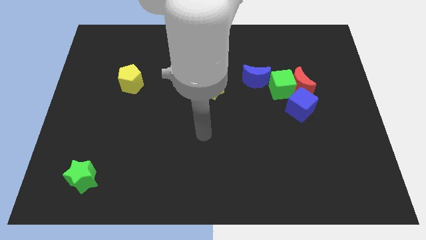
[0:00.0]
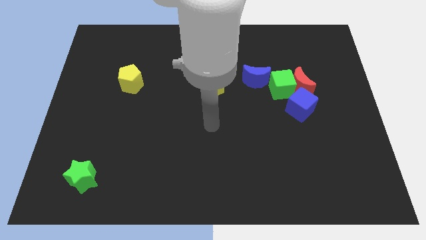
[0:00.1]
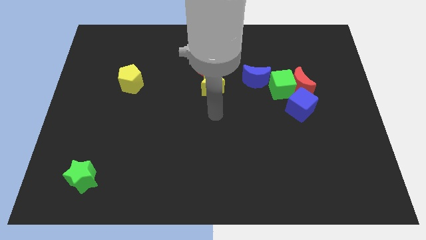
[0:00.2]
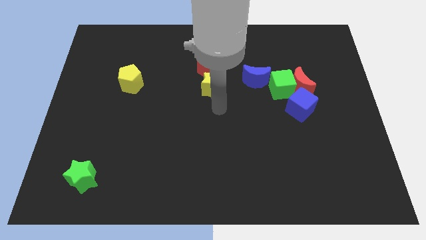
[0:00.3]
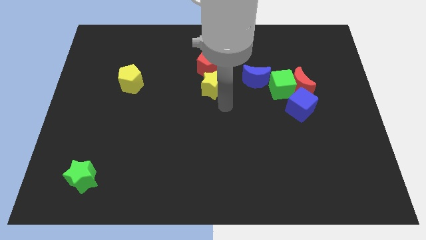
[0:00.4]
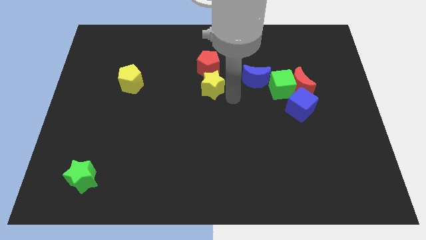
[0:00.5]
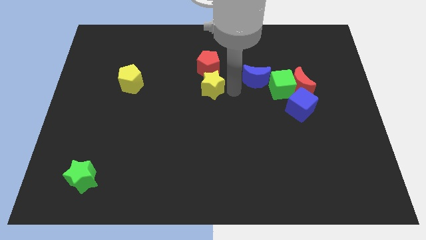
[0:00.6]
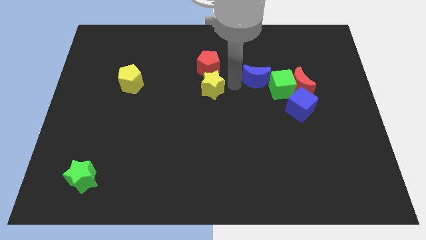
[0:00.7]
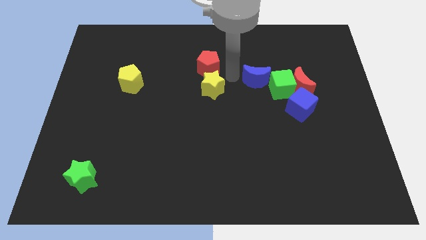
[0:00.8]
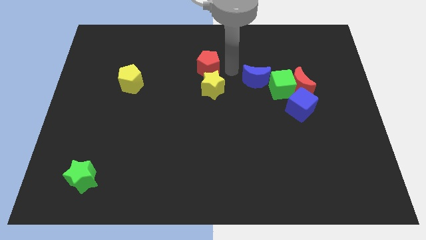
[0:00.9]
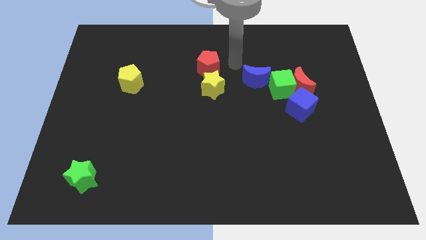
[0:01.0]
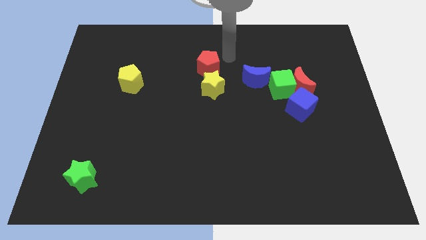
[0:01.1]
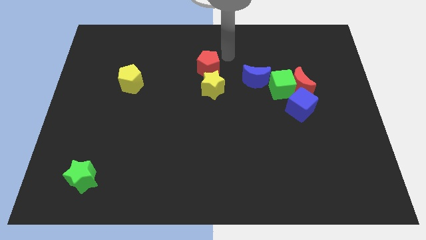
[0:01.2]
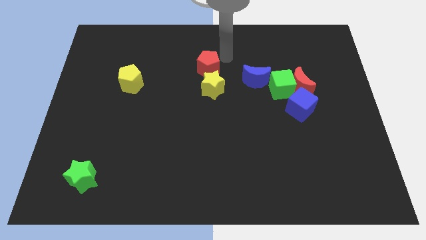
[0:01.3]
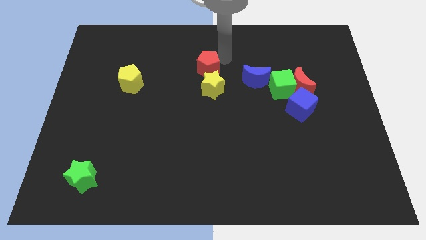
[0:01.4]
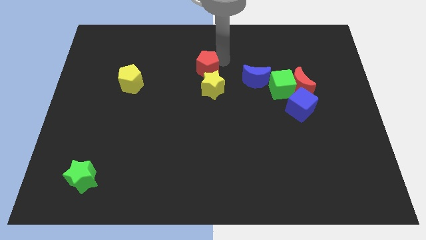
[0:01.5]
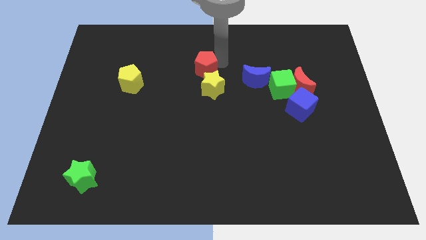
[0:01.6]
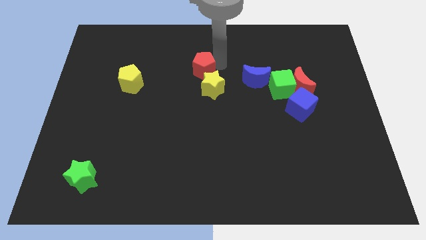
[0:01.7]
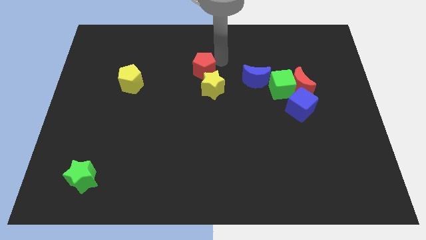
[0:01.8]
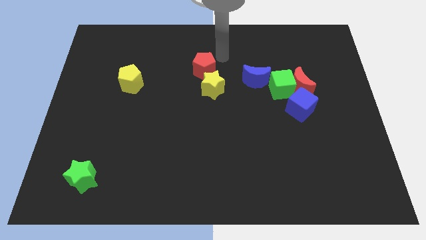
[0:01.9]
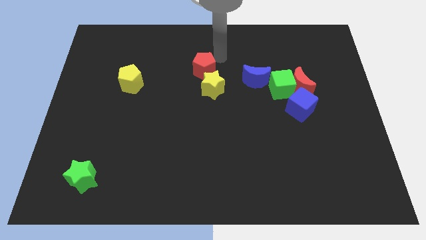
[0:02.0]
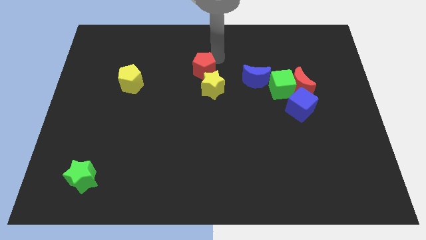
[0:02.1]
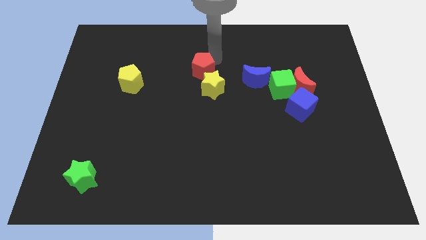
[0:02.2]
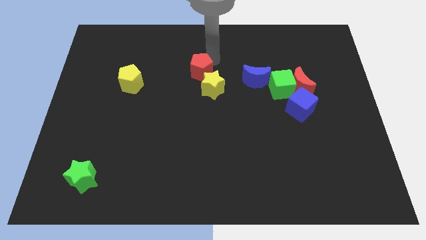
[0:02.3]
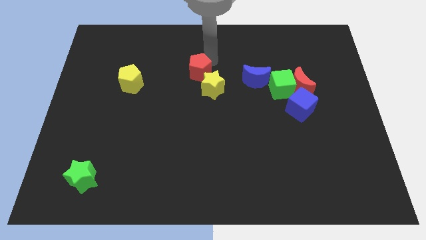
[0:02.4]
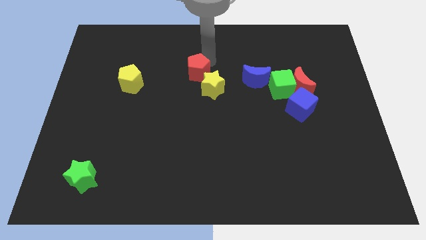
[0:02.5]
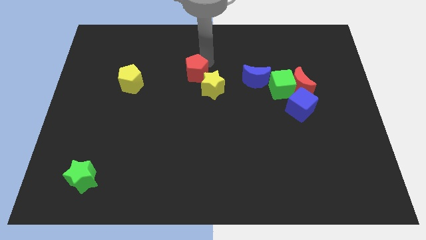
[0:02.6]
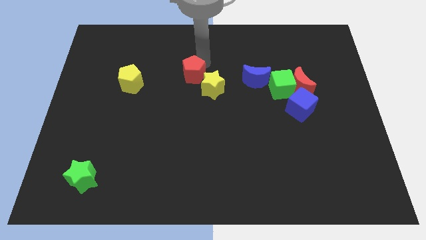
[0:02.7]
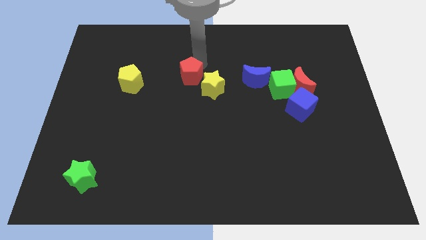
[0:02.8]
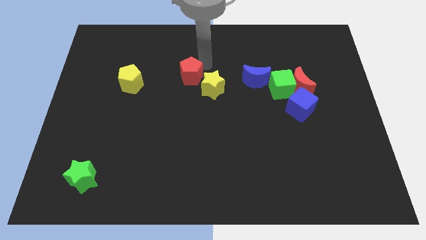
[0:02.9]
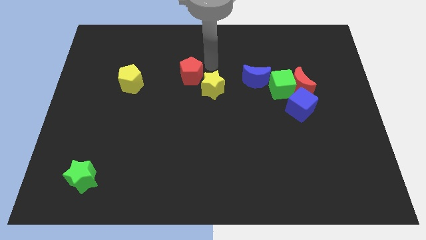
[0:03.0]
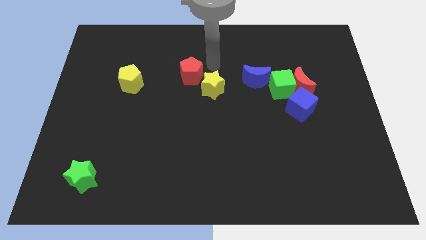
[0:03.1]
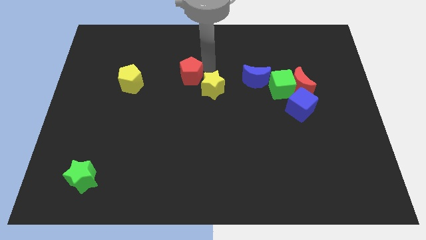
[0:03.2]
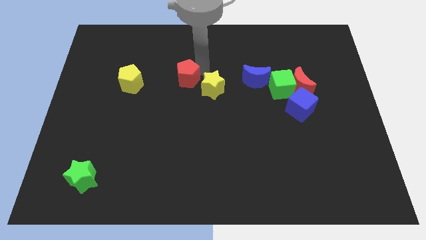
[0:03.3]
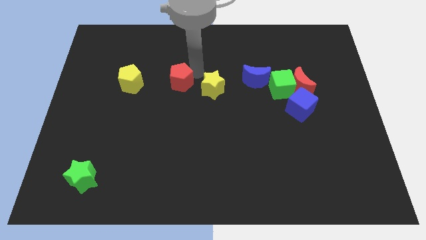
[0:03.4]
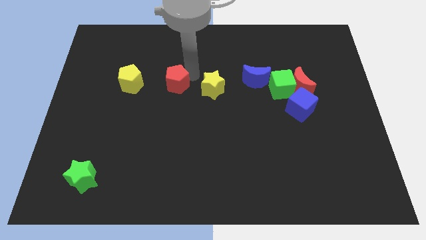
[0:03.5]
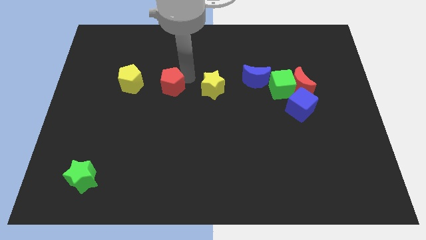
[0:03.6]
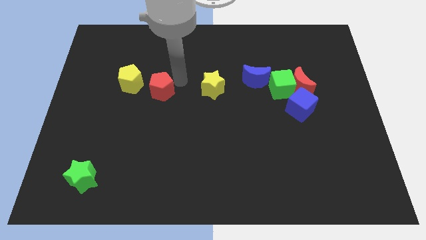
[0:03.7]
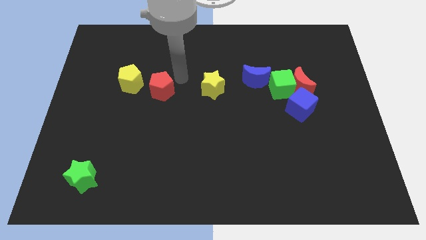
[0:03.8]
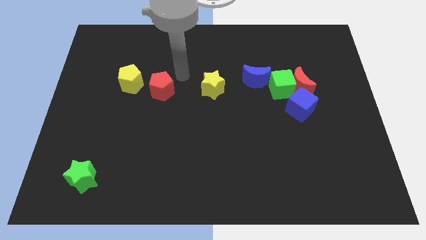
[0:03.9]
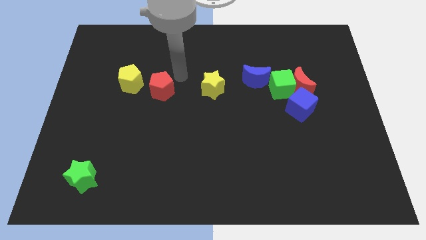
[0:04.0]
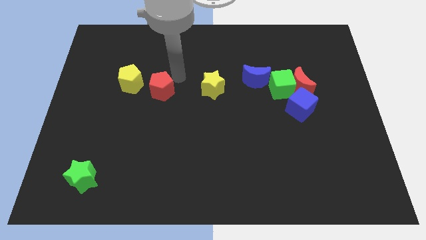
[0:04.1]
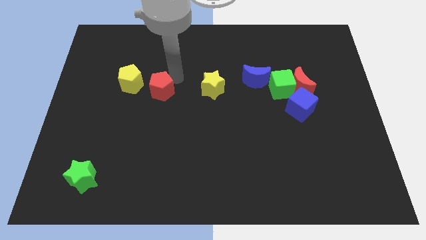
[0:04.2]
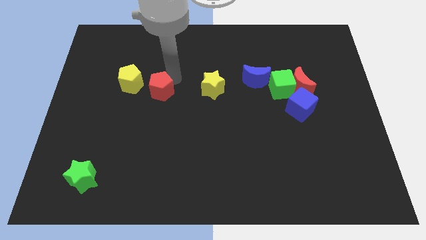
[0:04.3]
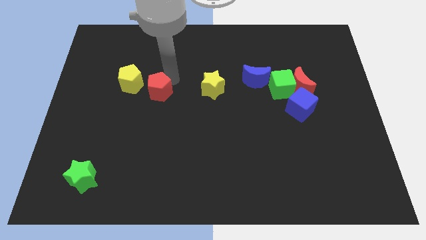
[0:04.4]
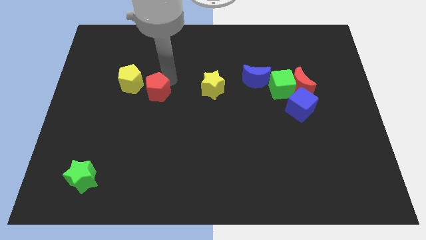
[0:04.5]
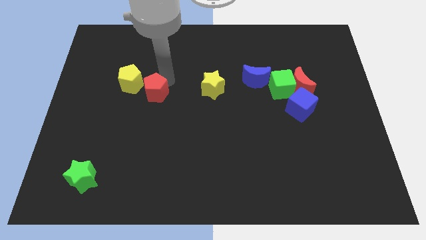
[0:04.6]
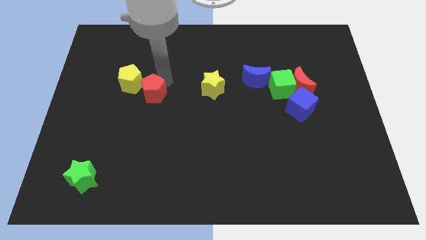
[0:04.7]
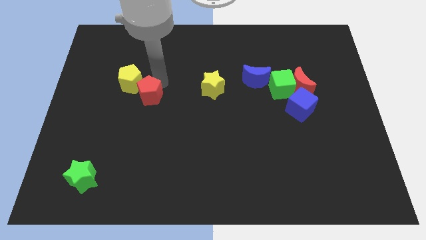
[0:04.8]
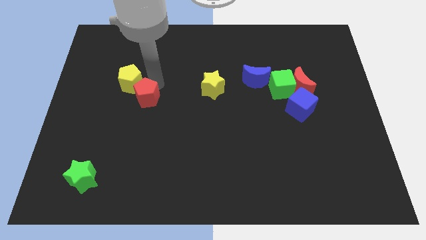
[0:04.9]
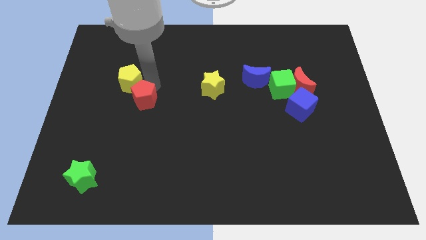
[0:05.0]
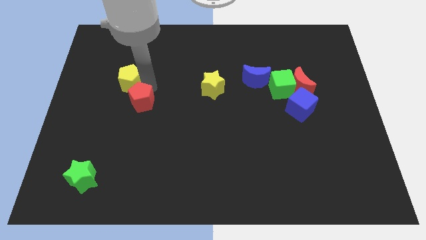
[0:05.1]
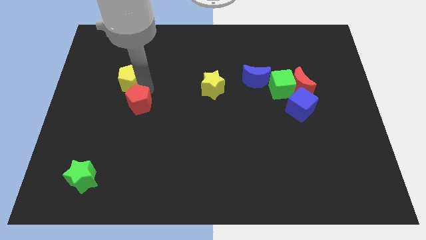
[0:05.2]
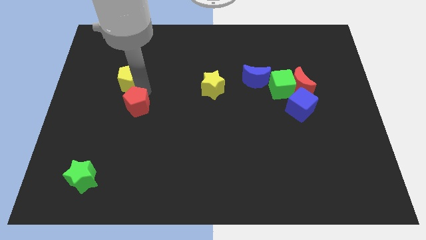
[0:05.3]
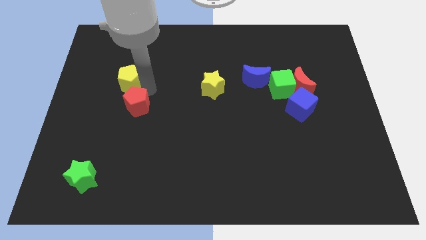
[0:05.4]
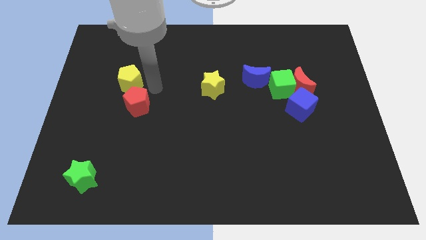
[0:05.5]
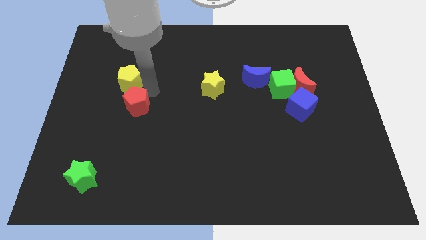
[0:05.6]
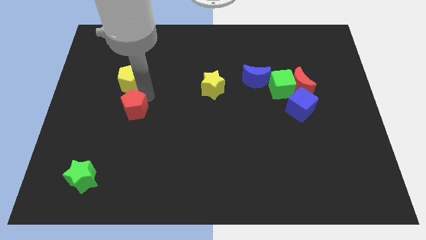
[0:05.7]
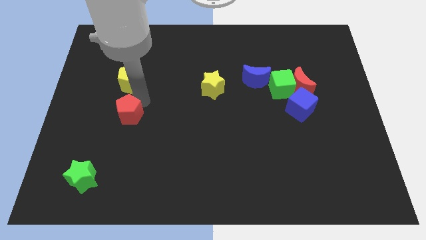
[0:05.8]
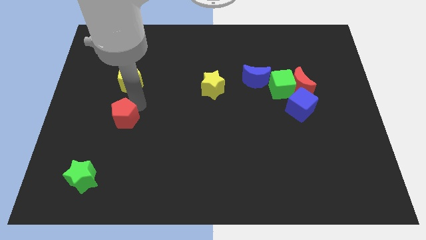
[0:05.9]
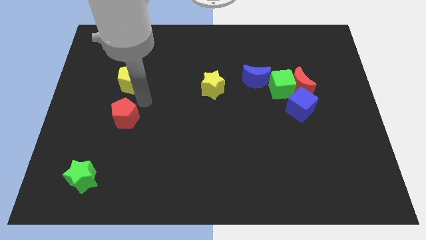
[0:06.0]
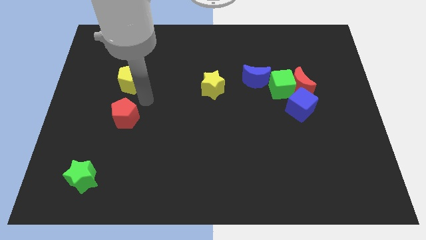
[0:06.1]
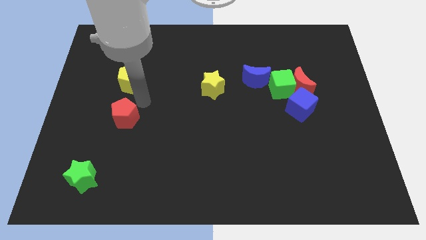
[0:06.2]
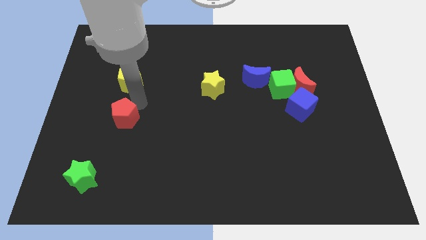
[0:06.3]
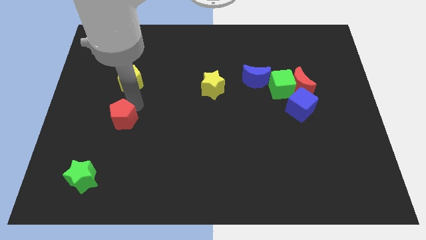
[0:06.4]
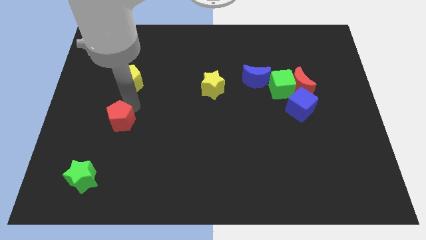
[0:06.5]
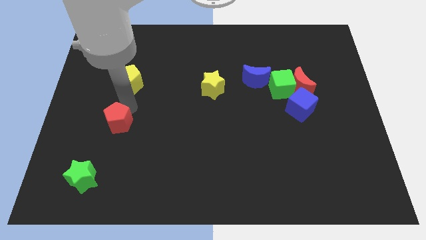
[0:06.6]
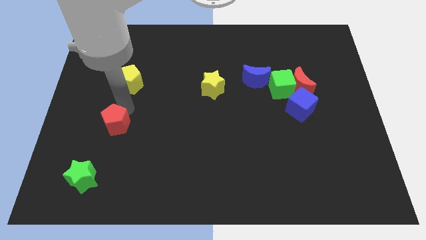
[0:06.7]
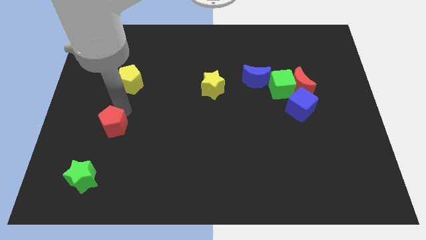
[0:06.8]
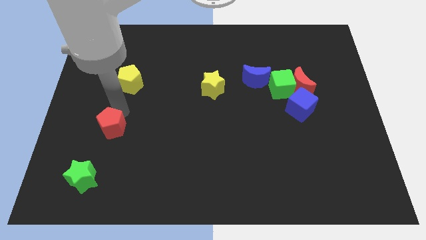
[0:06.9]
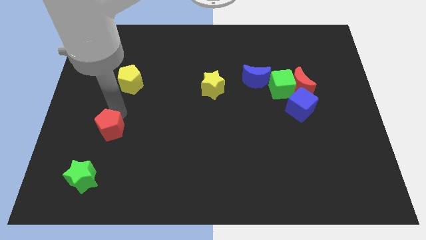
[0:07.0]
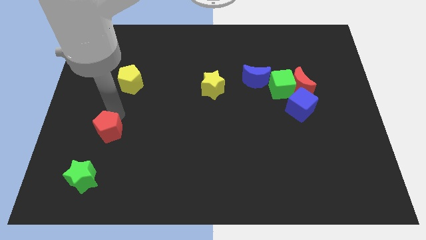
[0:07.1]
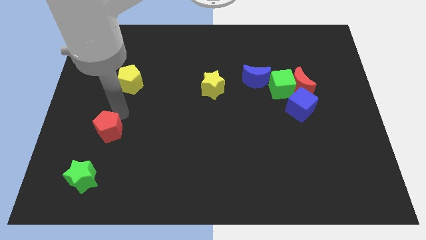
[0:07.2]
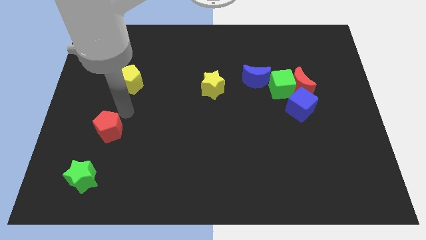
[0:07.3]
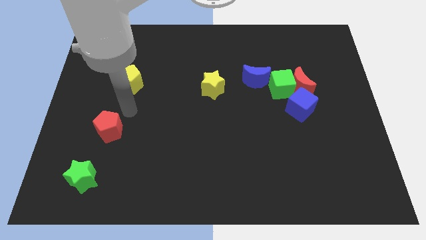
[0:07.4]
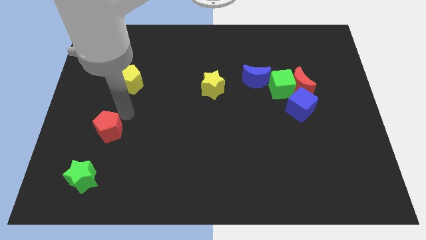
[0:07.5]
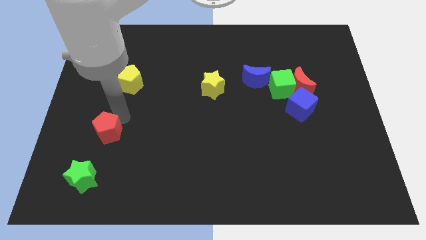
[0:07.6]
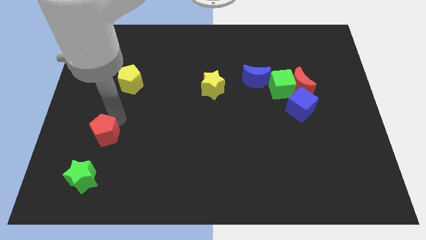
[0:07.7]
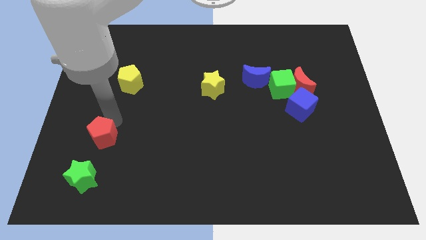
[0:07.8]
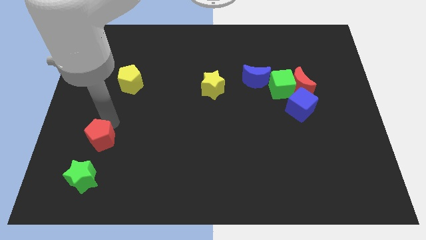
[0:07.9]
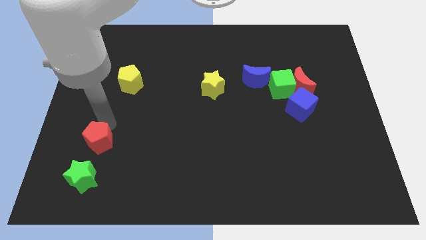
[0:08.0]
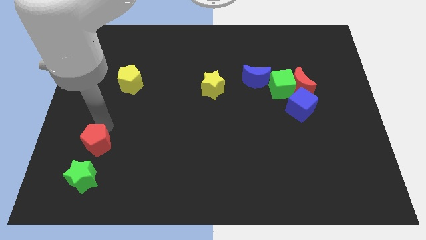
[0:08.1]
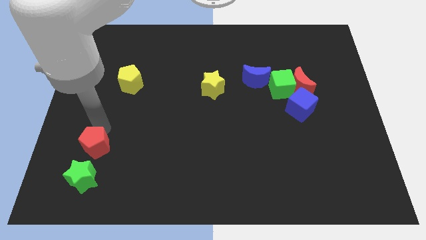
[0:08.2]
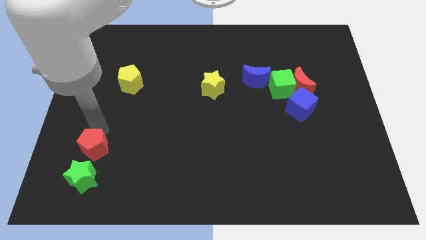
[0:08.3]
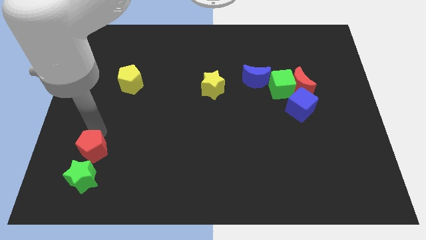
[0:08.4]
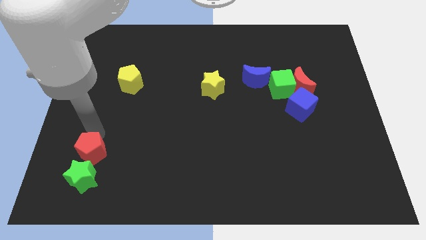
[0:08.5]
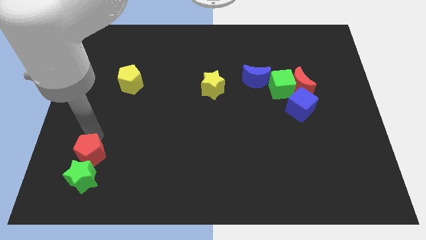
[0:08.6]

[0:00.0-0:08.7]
push the red pentagon to the green star
